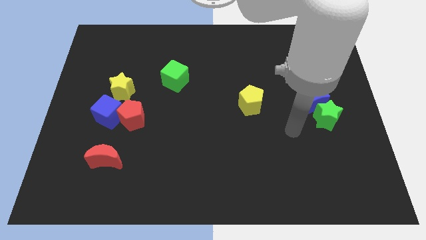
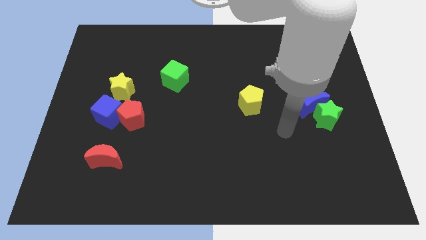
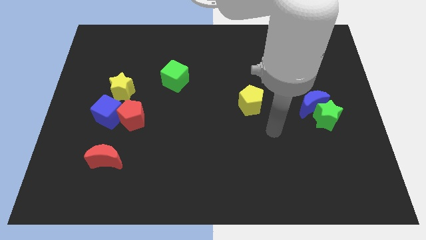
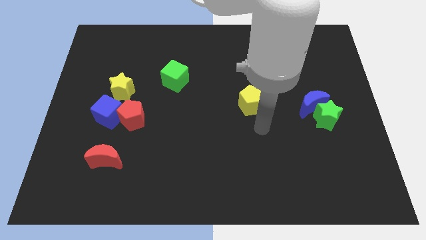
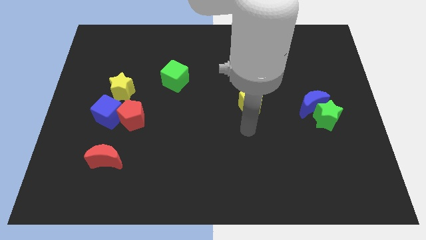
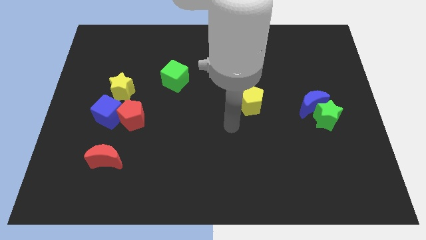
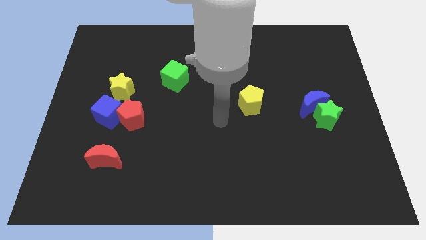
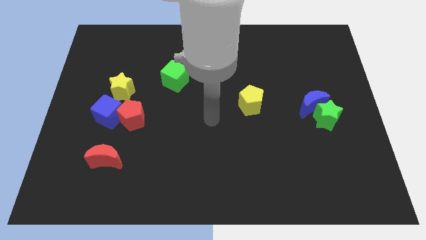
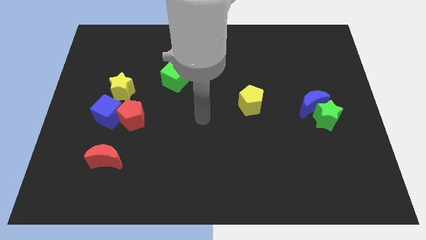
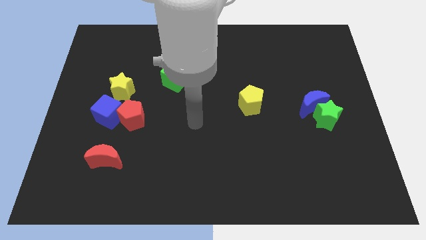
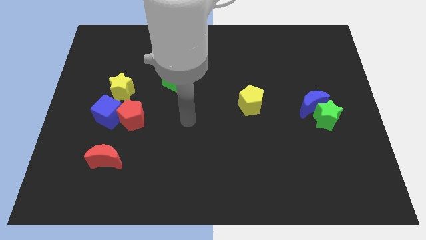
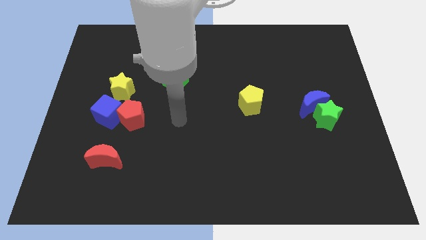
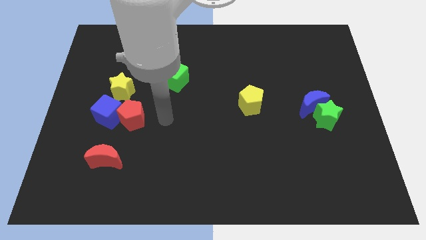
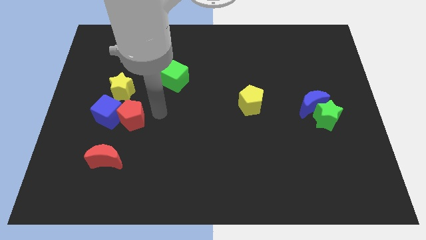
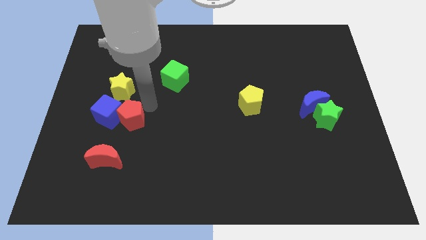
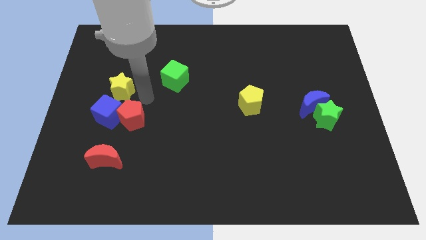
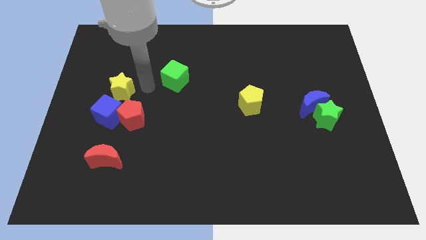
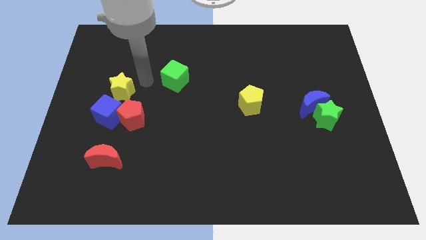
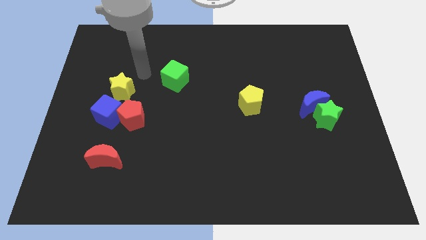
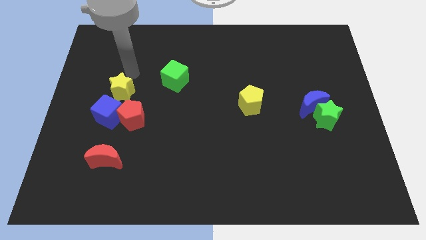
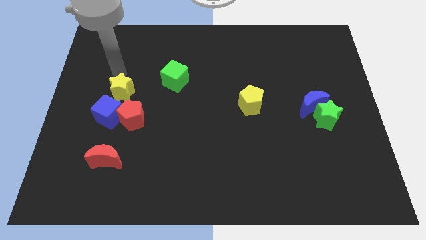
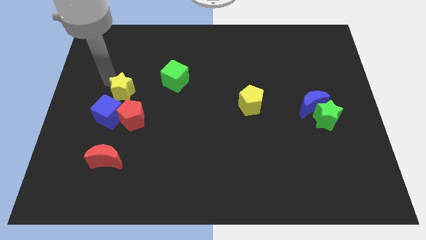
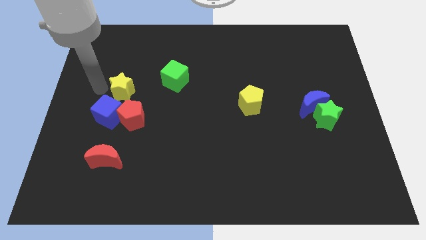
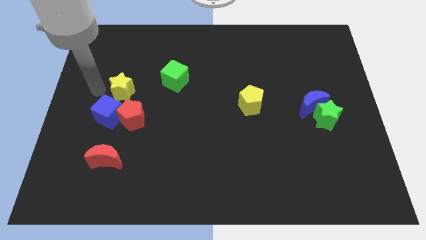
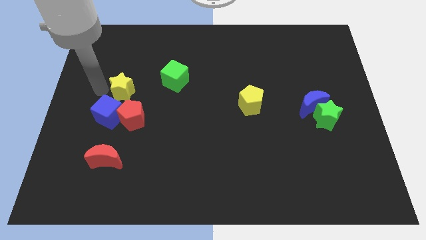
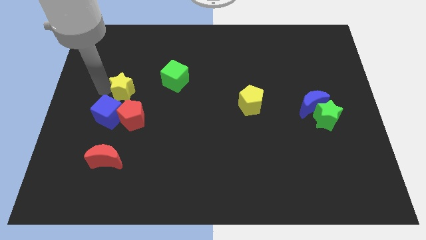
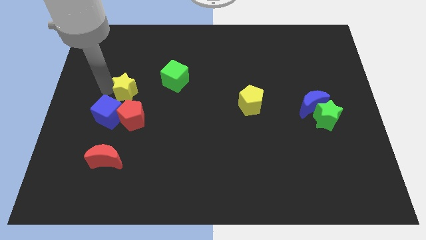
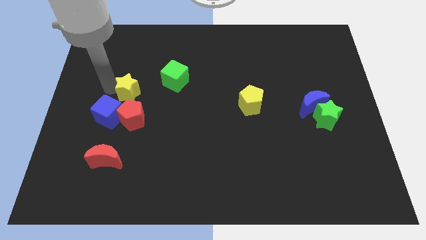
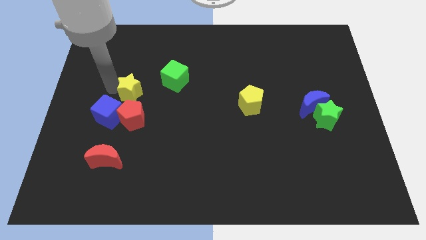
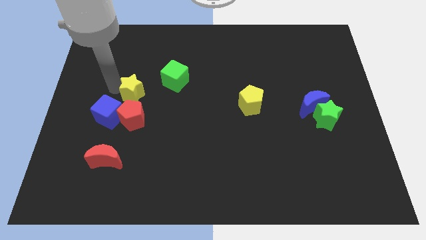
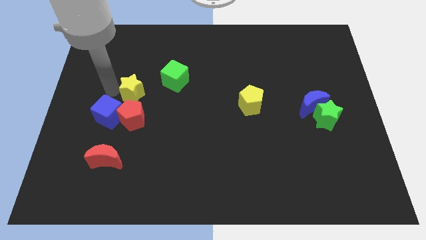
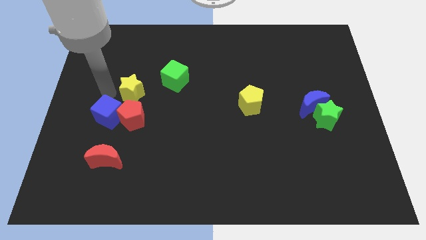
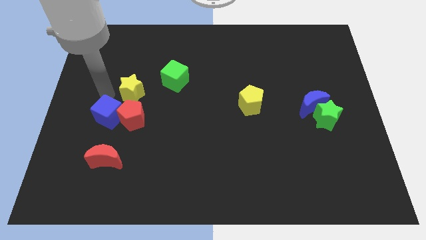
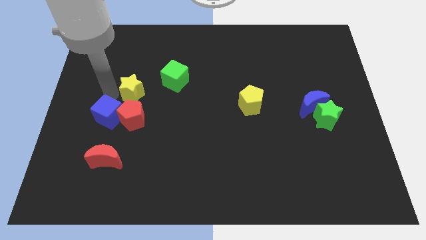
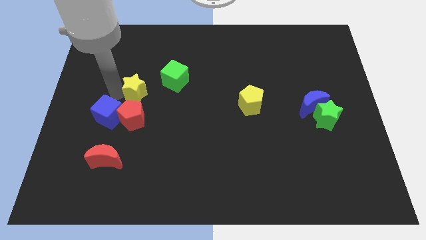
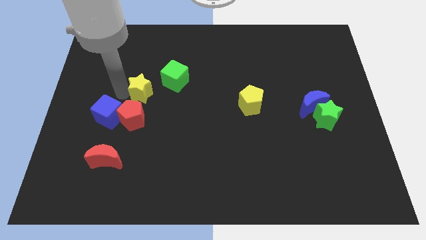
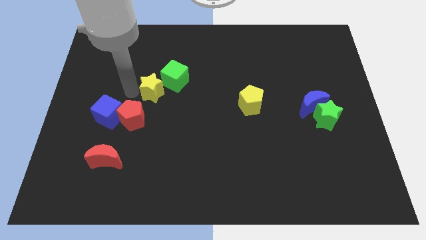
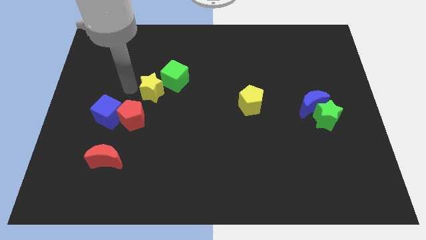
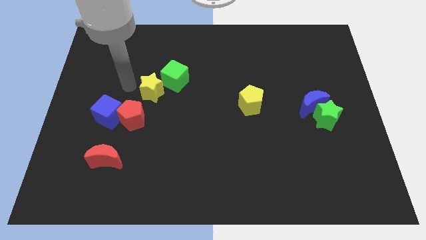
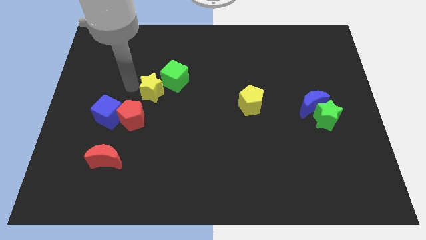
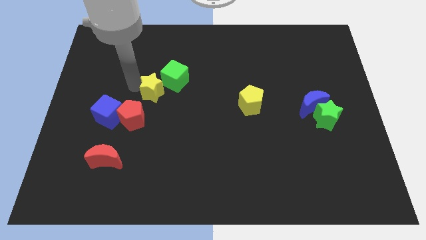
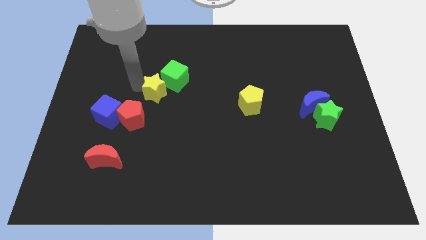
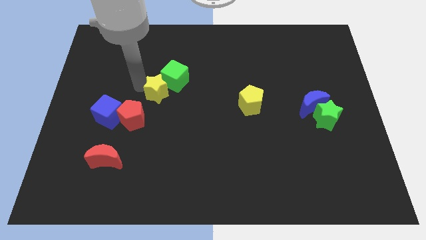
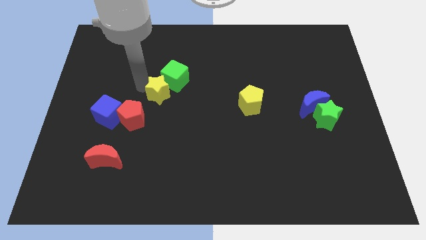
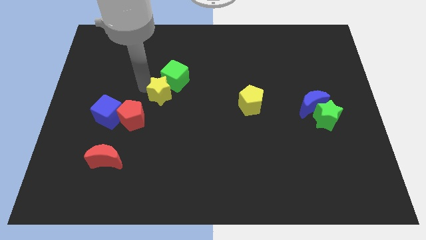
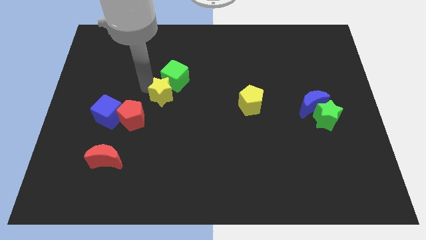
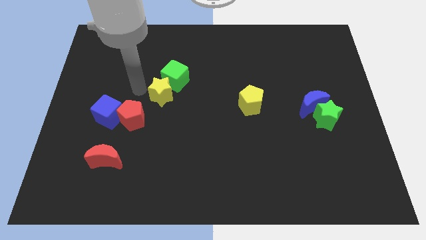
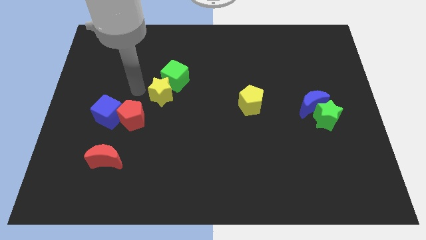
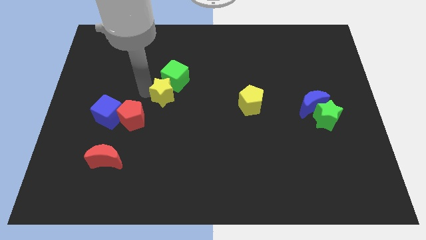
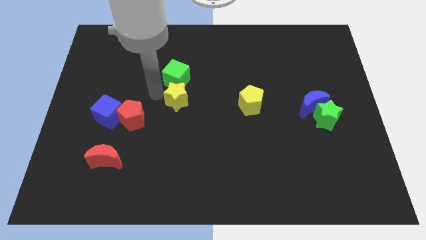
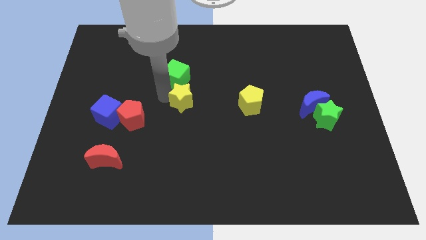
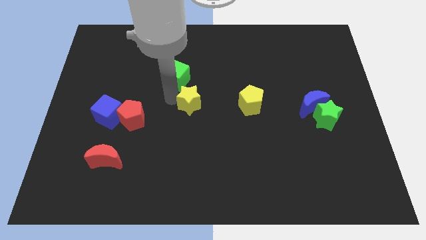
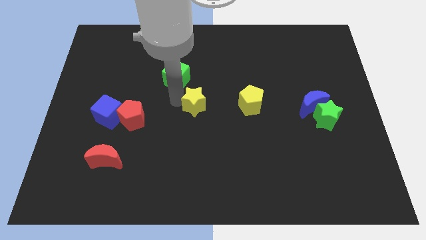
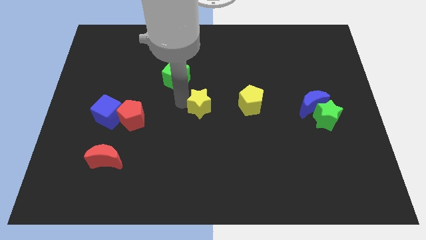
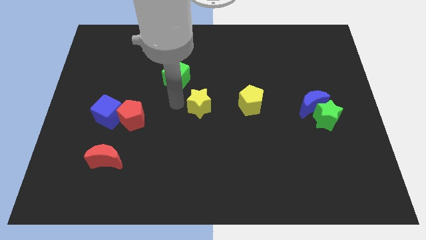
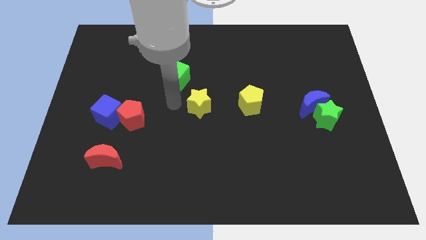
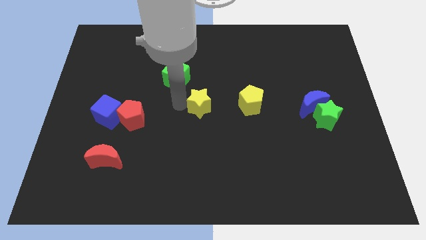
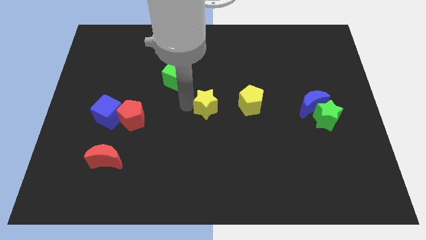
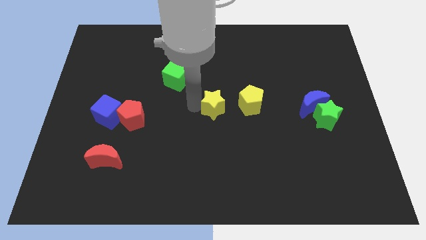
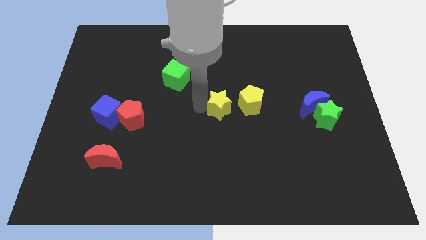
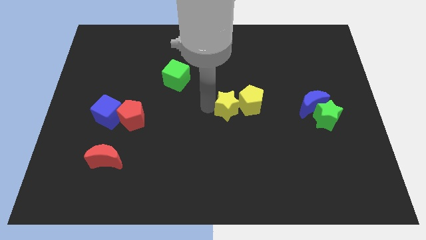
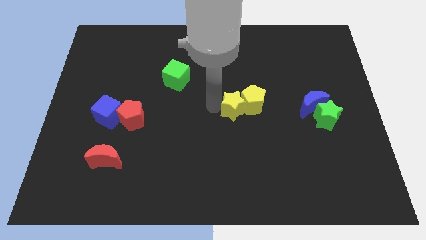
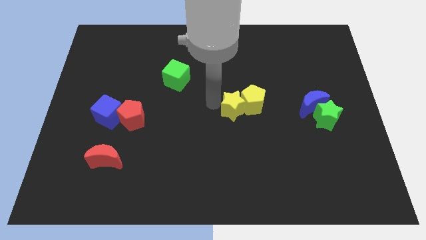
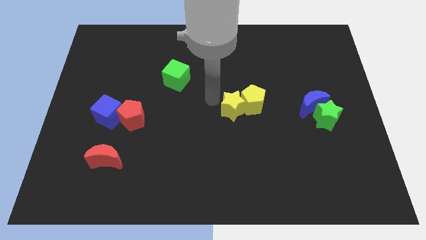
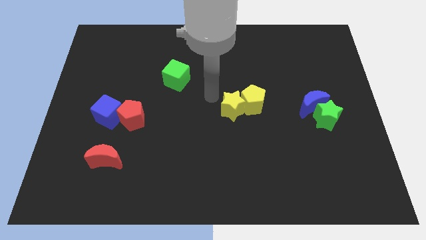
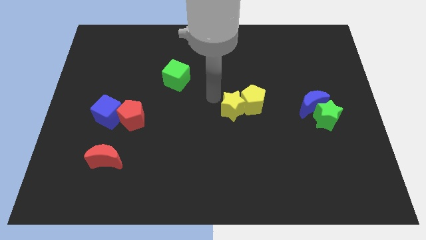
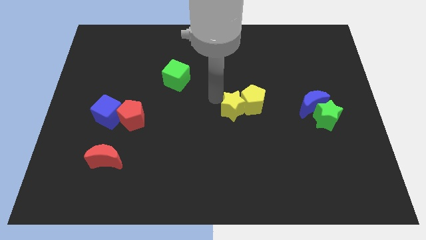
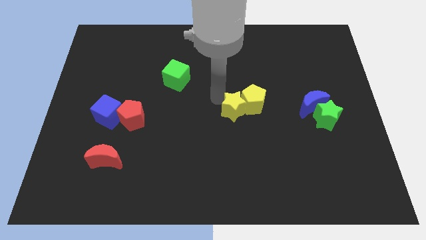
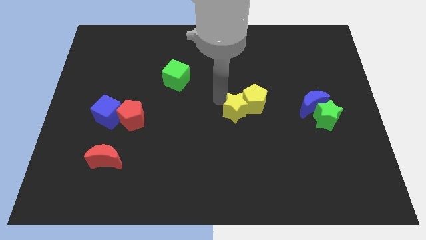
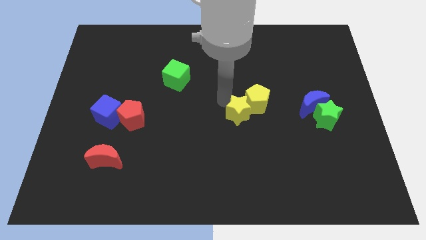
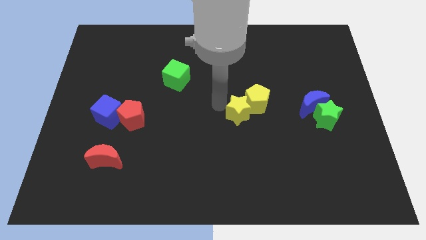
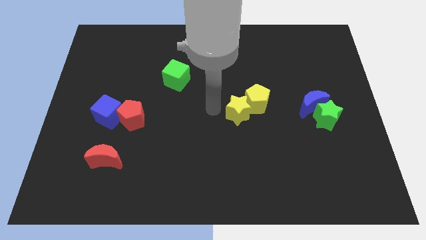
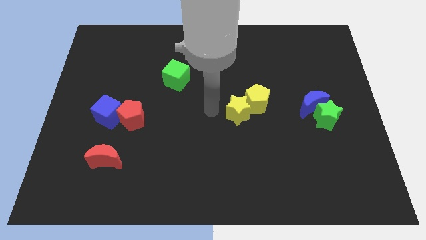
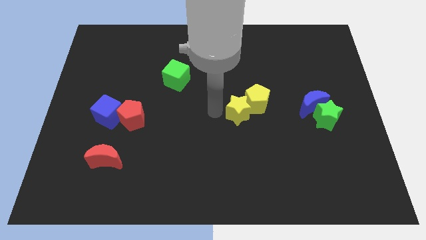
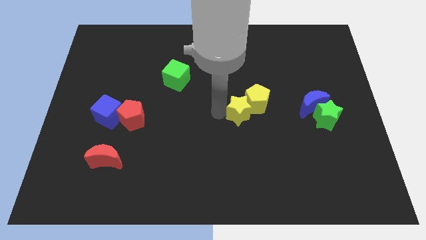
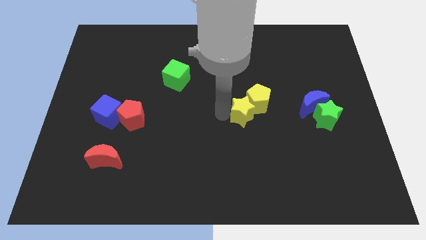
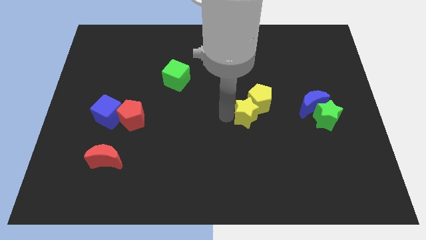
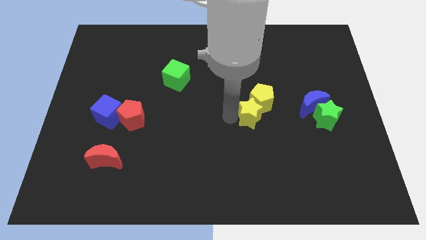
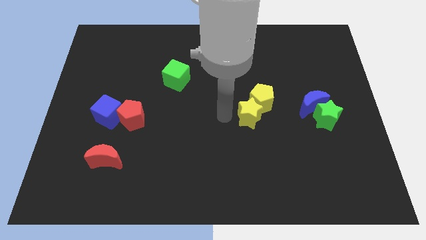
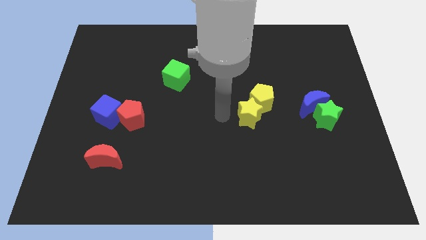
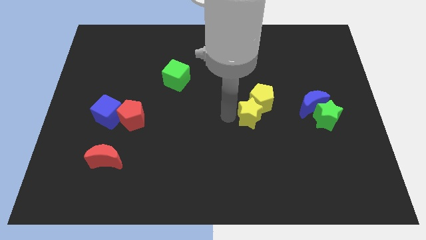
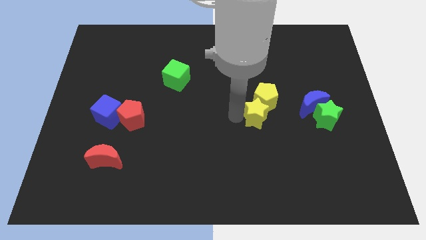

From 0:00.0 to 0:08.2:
push the yellow star to the left of the green star
